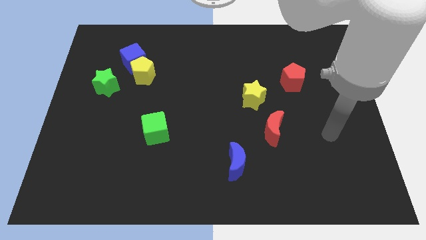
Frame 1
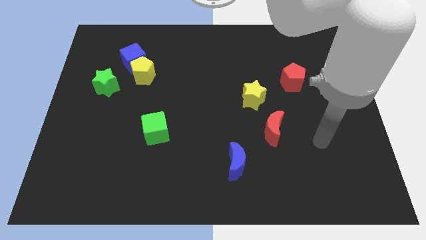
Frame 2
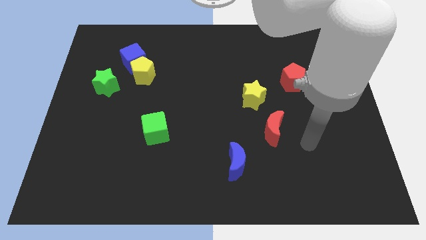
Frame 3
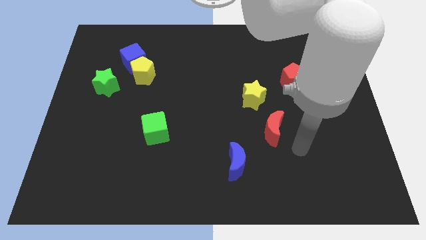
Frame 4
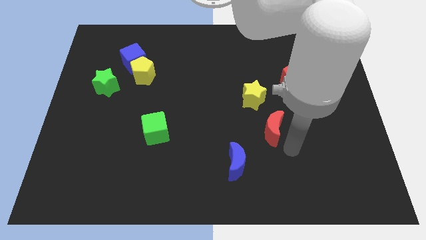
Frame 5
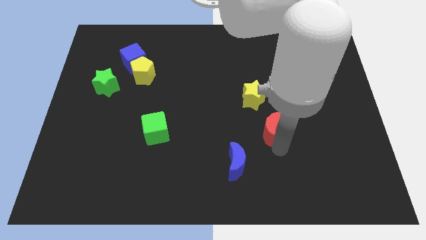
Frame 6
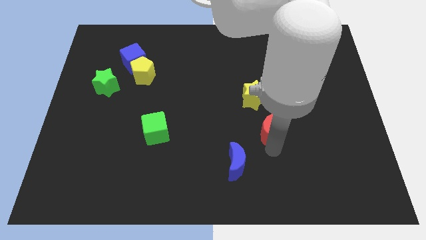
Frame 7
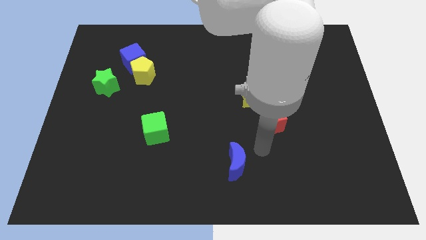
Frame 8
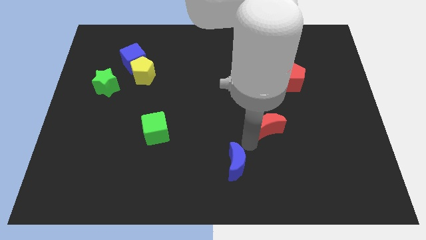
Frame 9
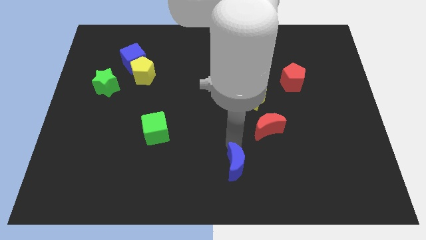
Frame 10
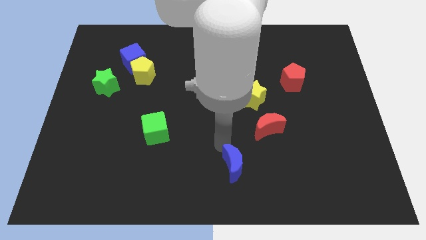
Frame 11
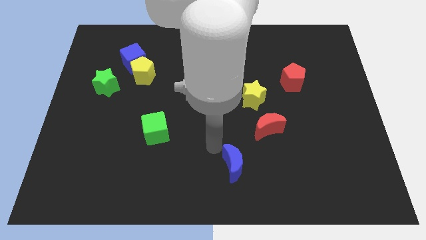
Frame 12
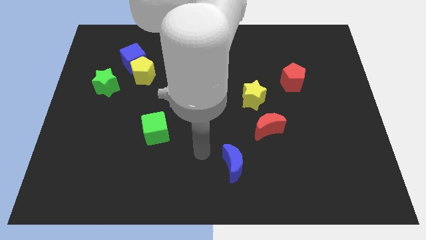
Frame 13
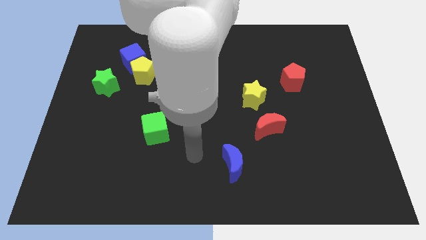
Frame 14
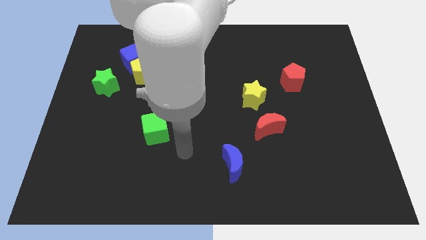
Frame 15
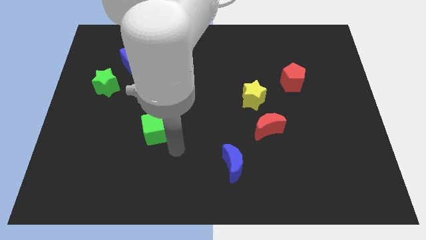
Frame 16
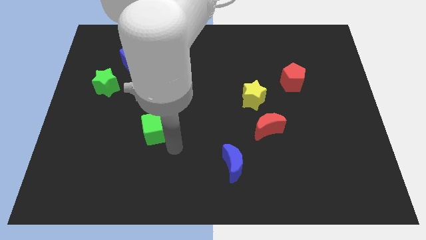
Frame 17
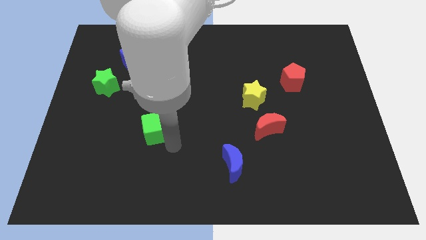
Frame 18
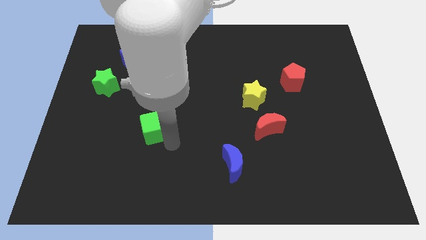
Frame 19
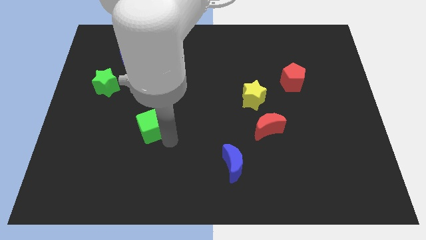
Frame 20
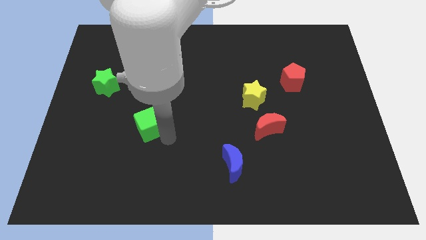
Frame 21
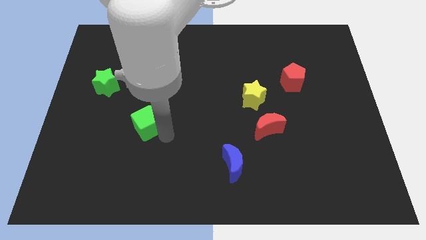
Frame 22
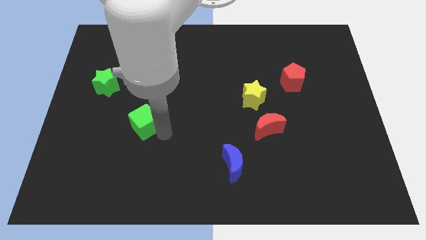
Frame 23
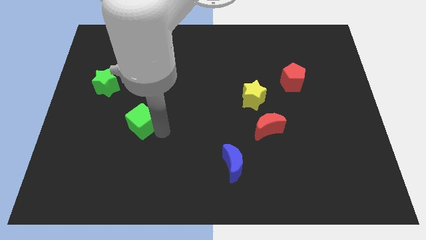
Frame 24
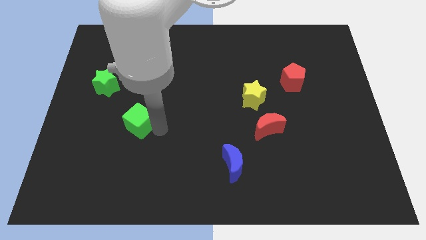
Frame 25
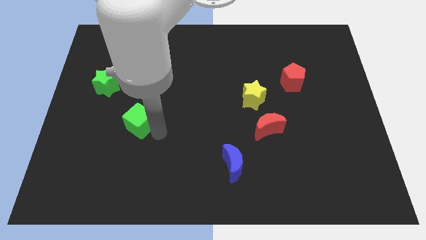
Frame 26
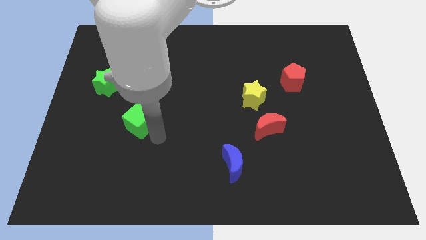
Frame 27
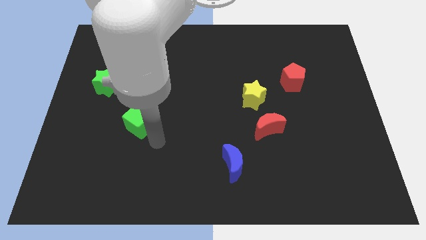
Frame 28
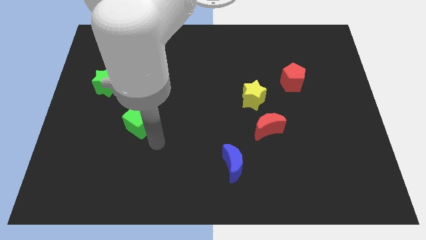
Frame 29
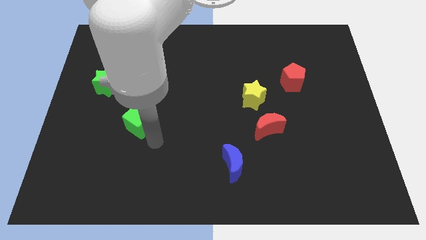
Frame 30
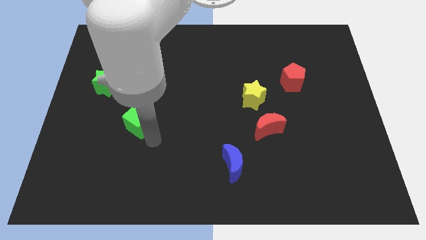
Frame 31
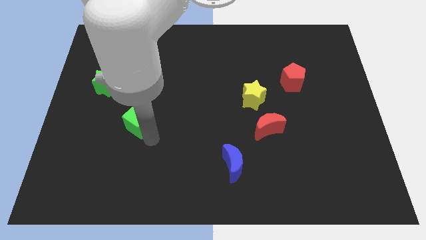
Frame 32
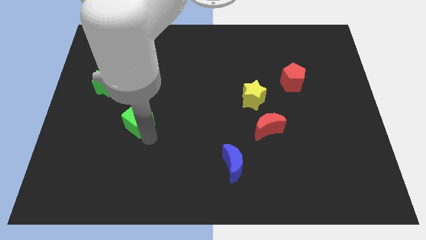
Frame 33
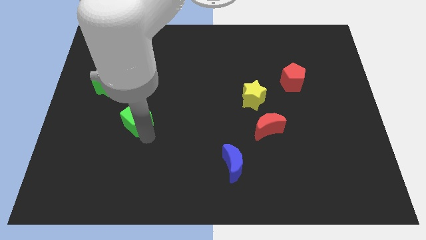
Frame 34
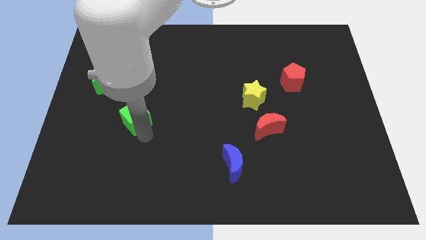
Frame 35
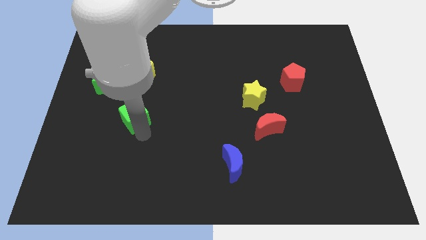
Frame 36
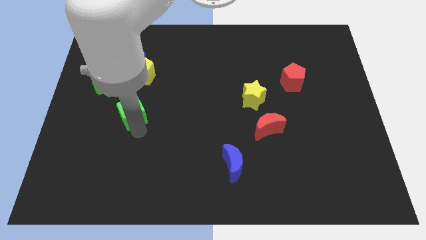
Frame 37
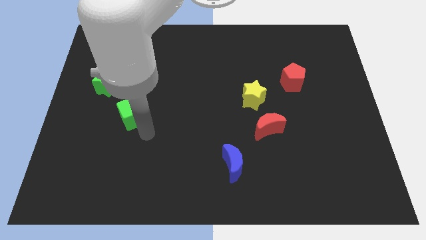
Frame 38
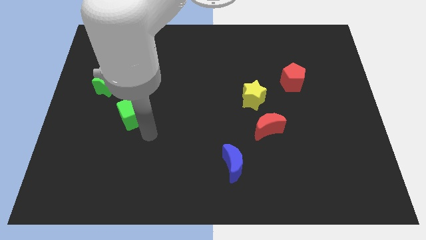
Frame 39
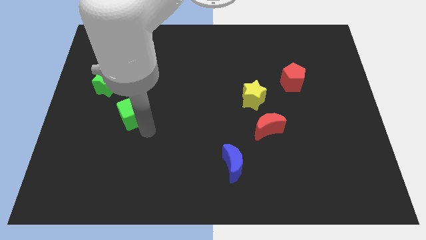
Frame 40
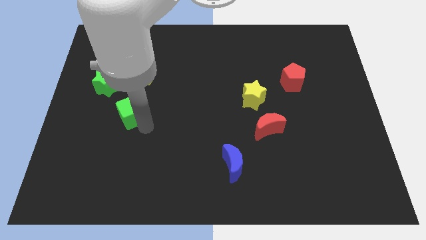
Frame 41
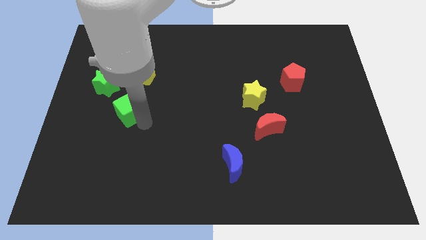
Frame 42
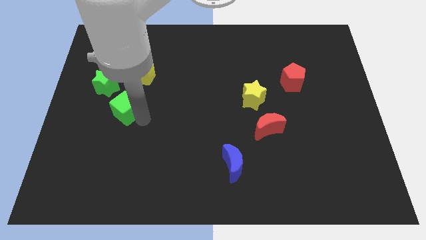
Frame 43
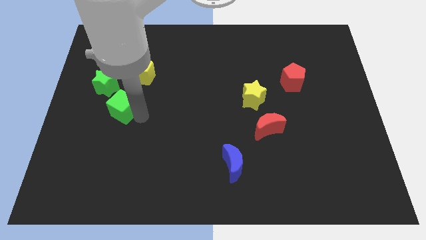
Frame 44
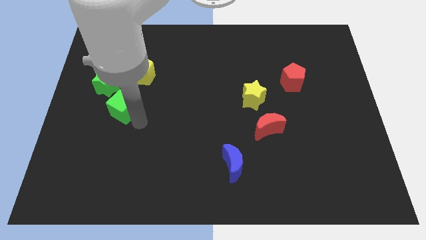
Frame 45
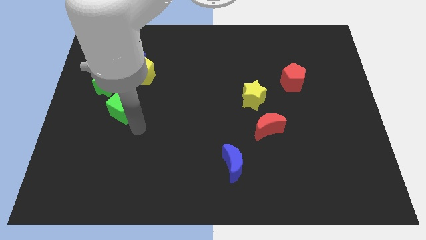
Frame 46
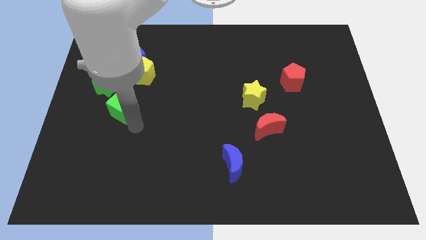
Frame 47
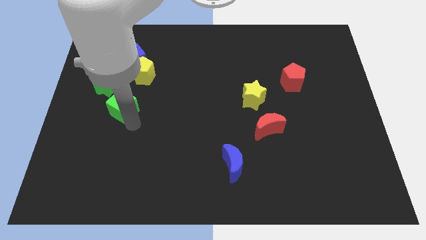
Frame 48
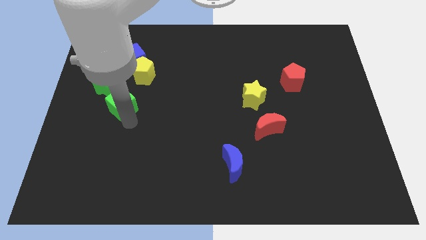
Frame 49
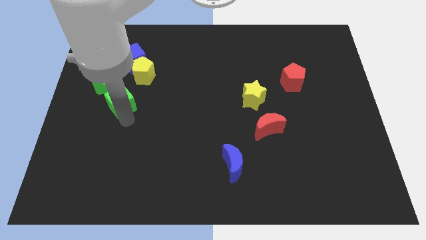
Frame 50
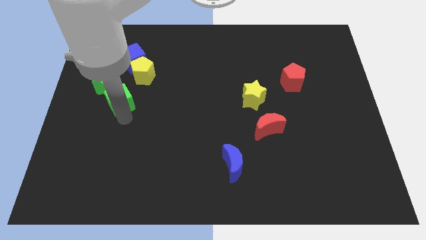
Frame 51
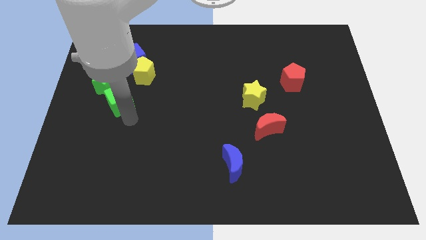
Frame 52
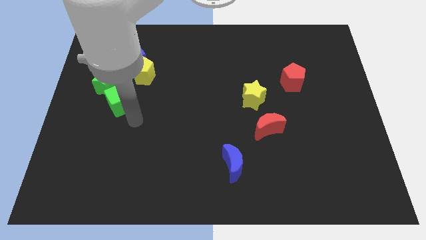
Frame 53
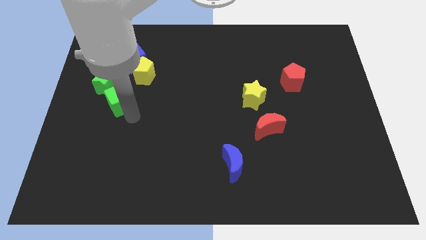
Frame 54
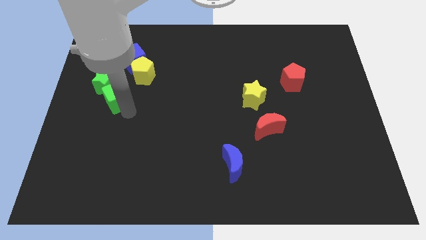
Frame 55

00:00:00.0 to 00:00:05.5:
put the green cube close to the green star

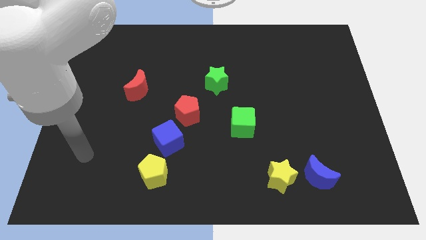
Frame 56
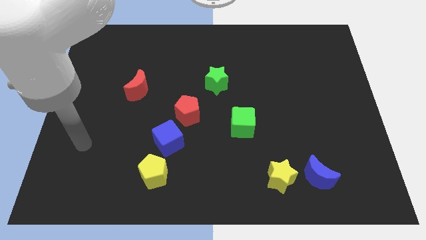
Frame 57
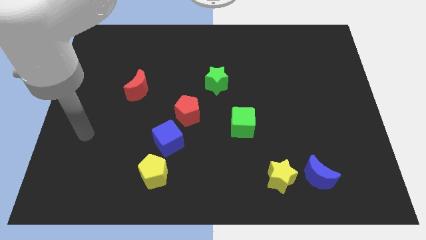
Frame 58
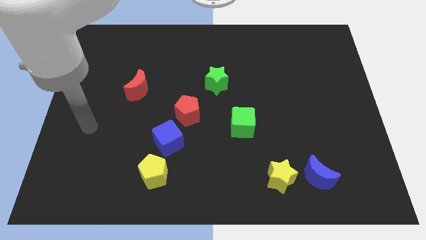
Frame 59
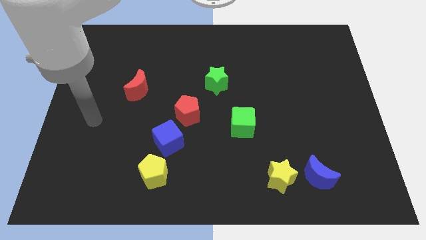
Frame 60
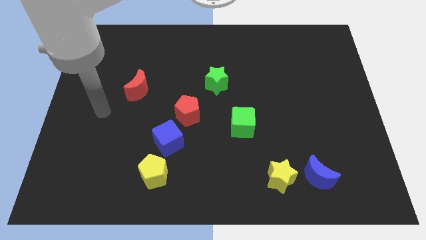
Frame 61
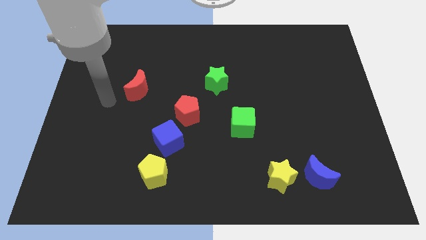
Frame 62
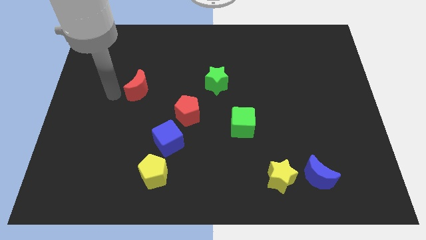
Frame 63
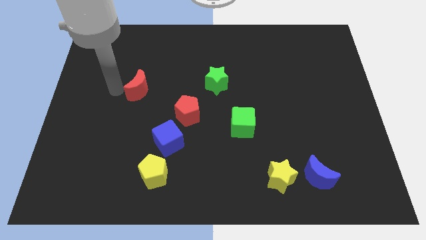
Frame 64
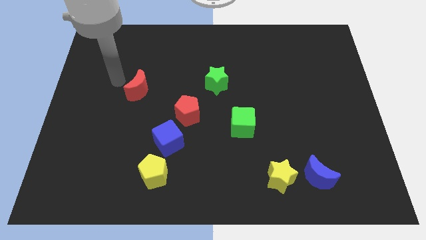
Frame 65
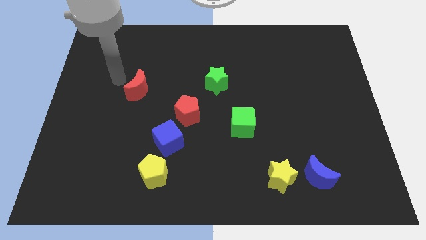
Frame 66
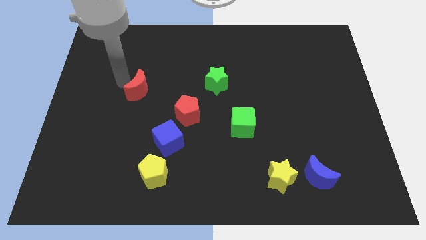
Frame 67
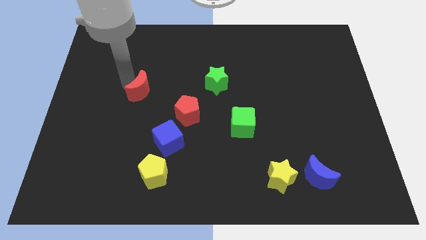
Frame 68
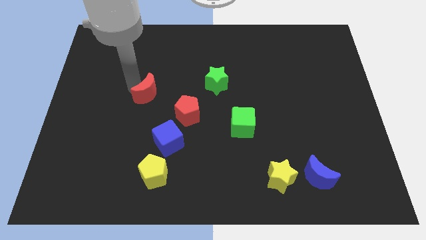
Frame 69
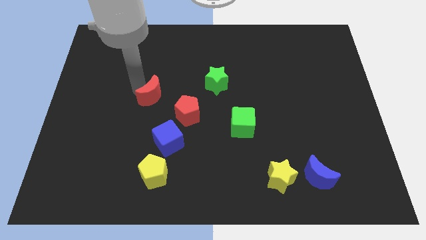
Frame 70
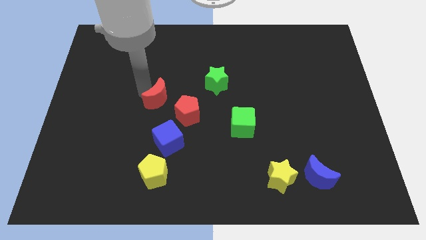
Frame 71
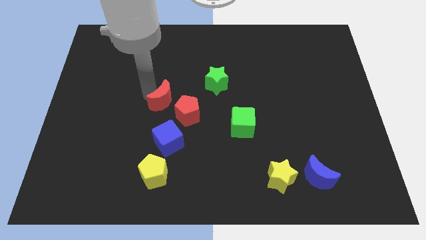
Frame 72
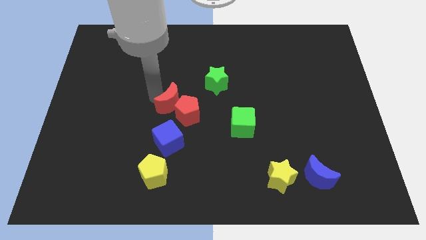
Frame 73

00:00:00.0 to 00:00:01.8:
push the red moon next to the red pentagon

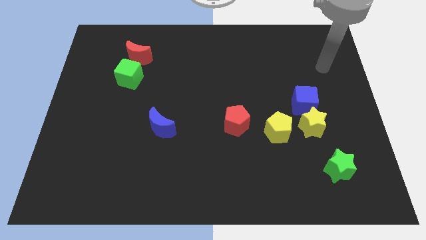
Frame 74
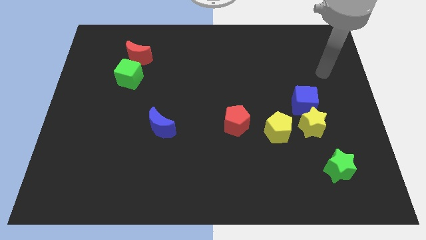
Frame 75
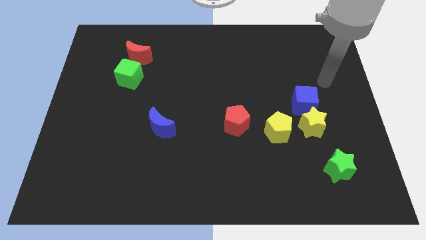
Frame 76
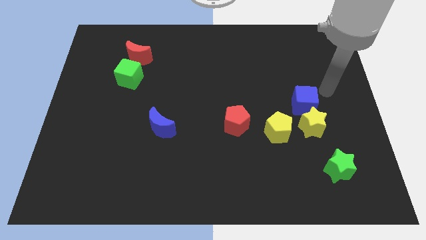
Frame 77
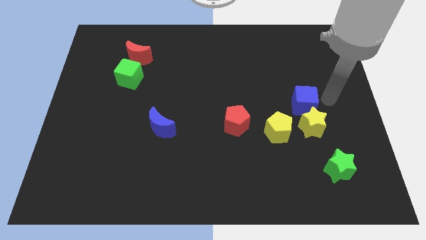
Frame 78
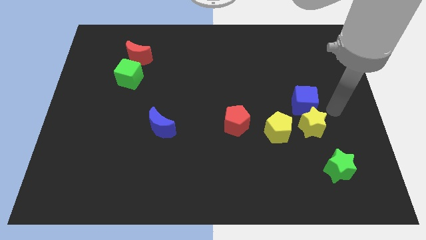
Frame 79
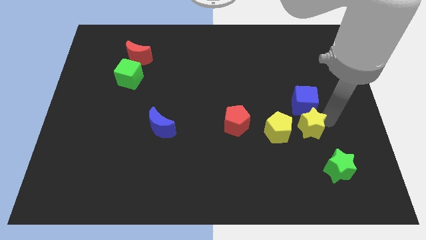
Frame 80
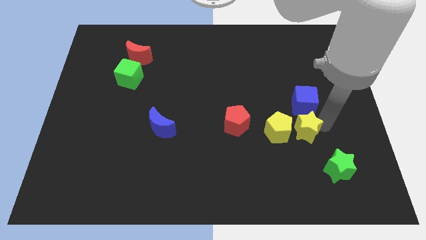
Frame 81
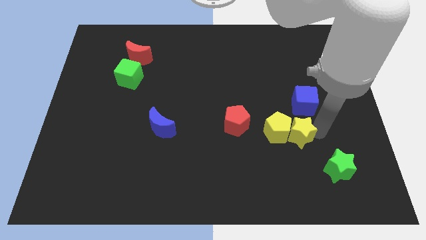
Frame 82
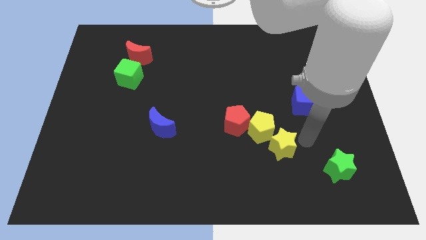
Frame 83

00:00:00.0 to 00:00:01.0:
slide the yellow pentagon to the red pentagon
